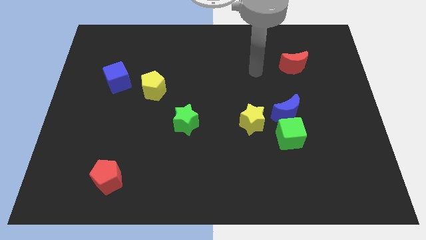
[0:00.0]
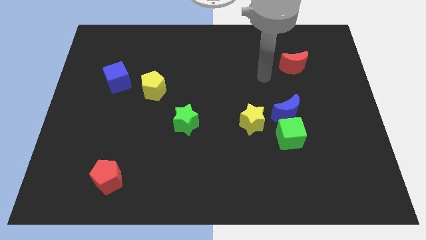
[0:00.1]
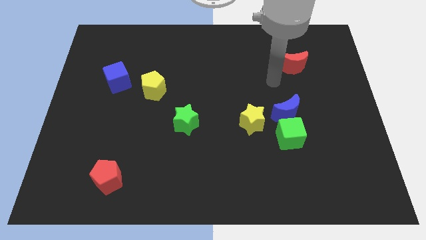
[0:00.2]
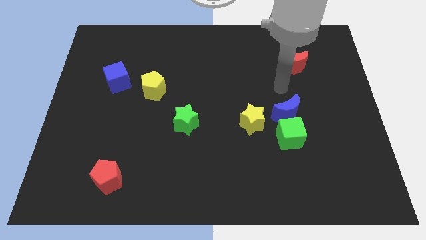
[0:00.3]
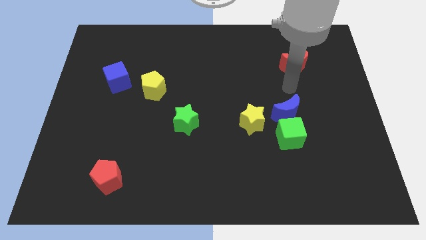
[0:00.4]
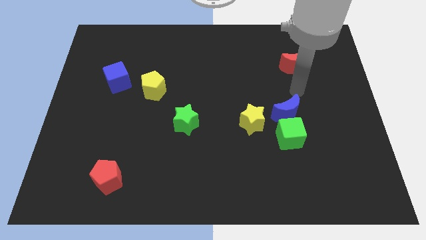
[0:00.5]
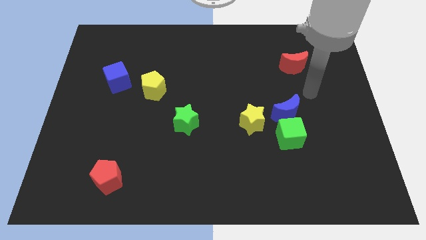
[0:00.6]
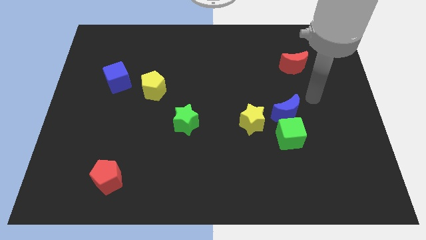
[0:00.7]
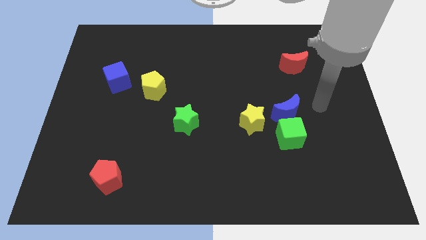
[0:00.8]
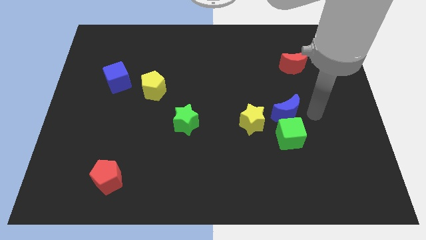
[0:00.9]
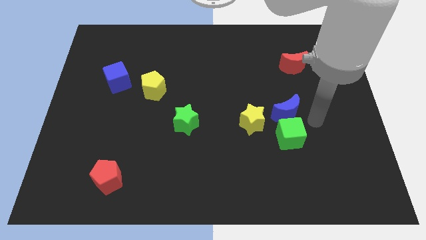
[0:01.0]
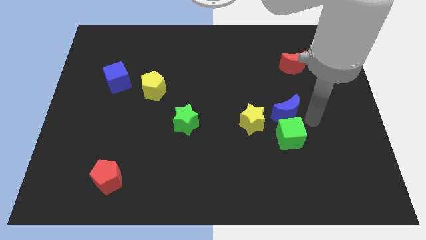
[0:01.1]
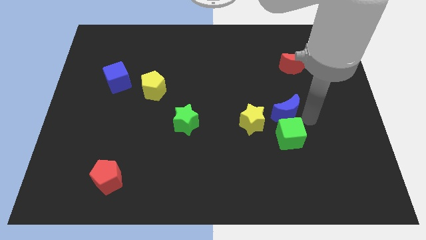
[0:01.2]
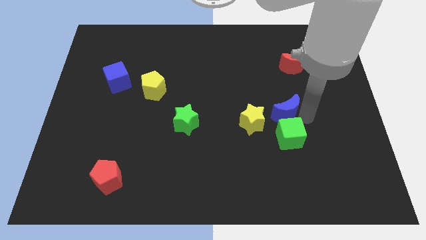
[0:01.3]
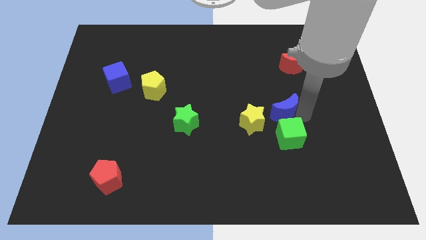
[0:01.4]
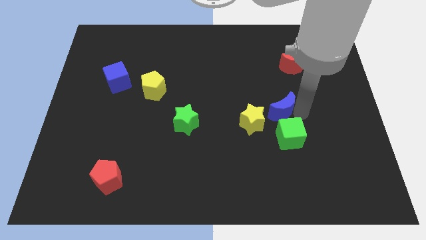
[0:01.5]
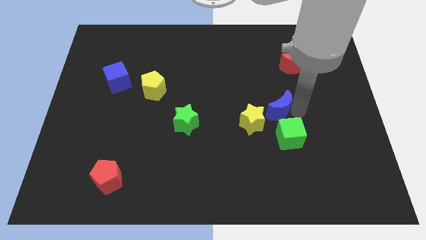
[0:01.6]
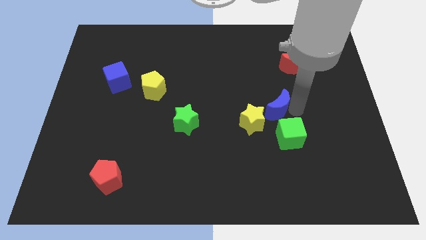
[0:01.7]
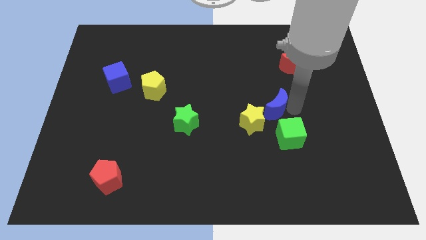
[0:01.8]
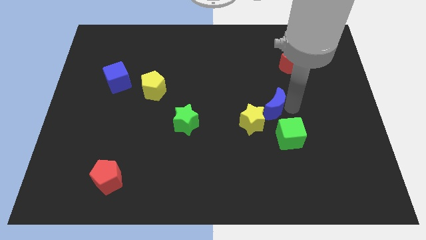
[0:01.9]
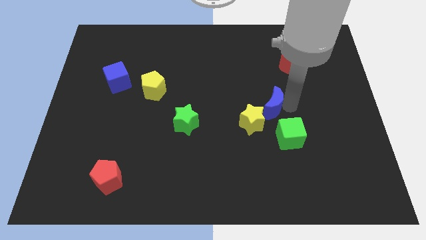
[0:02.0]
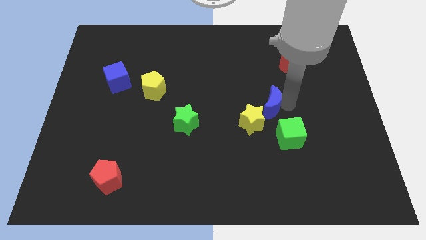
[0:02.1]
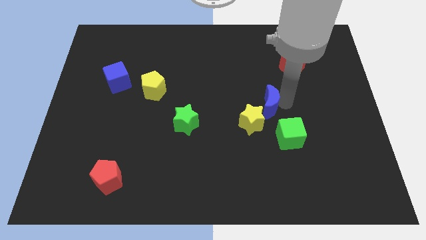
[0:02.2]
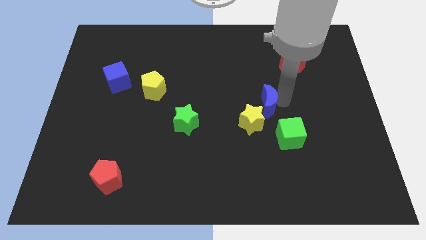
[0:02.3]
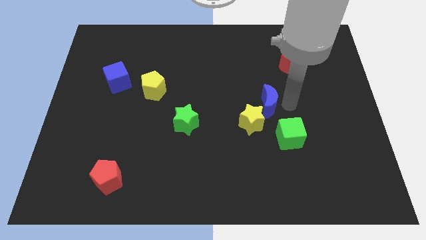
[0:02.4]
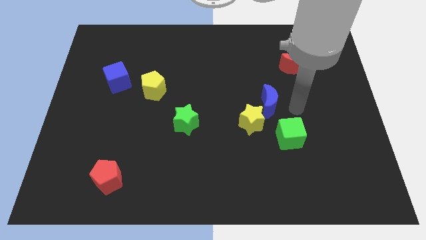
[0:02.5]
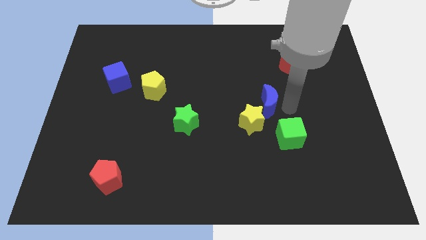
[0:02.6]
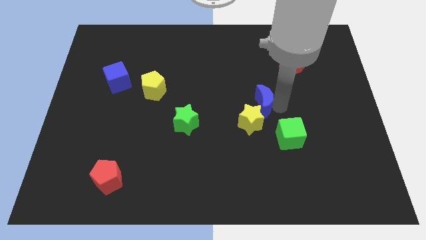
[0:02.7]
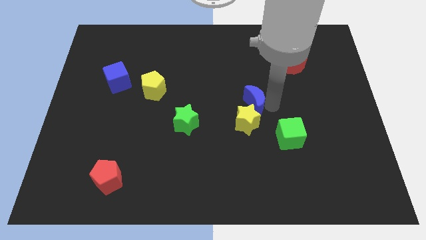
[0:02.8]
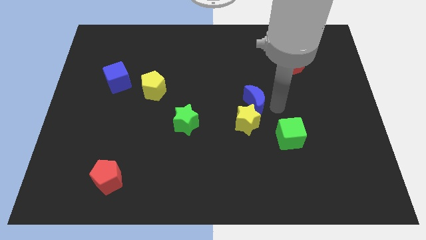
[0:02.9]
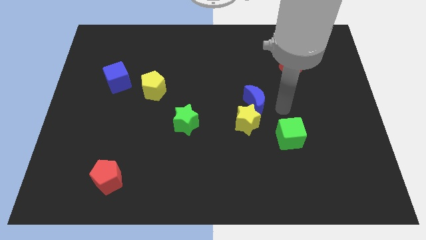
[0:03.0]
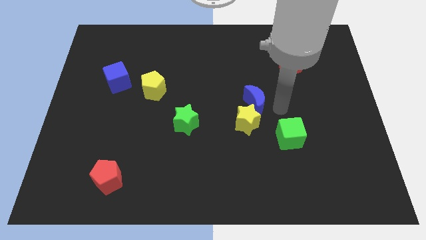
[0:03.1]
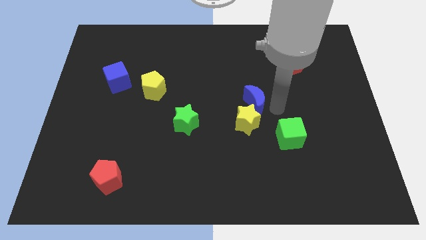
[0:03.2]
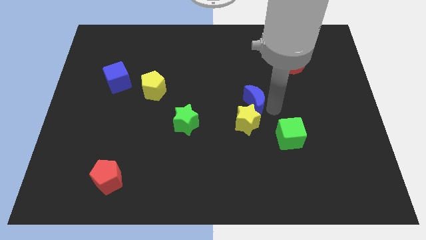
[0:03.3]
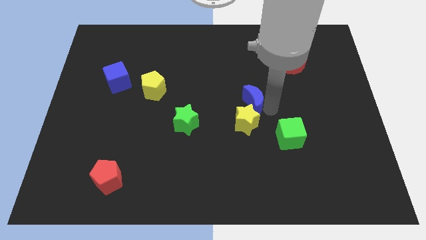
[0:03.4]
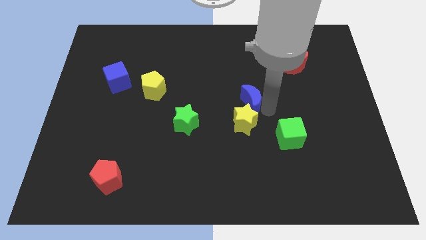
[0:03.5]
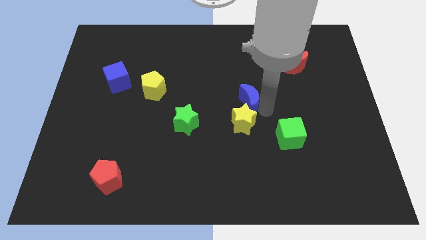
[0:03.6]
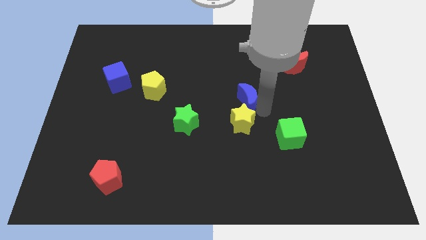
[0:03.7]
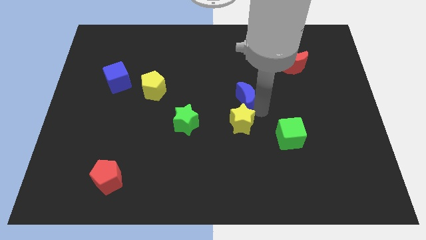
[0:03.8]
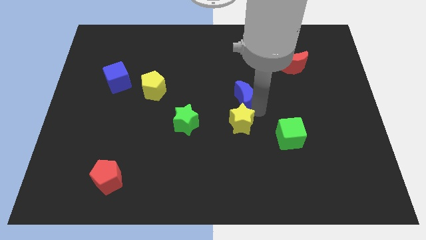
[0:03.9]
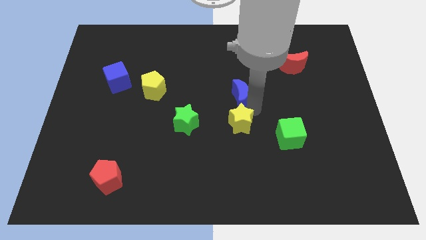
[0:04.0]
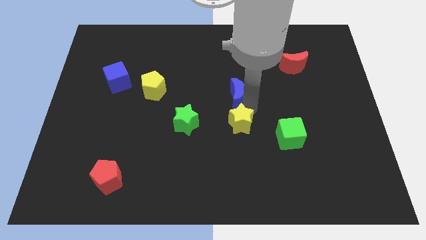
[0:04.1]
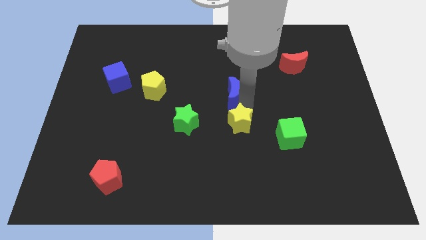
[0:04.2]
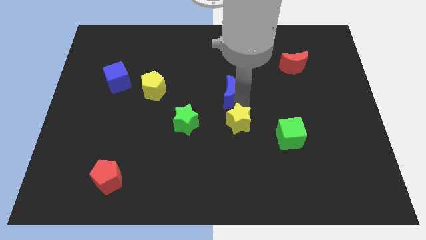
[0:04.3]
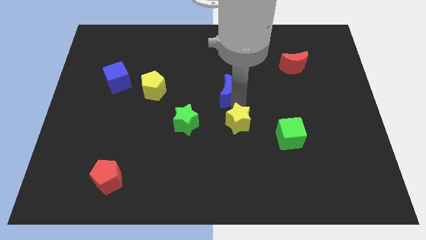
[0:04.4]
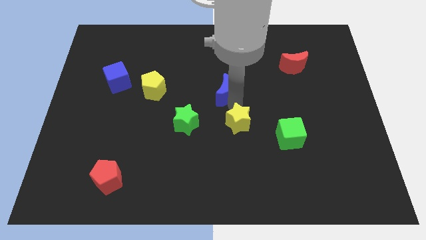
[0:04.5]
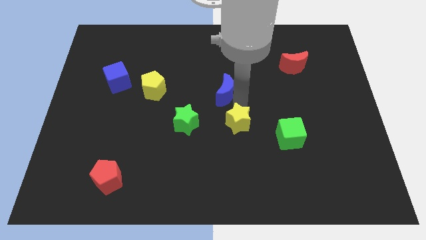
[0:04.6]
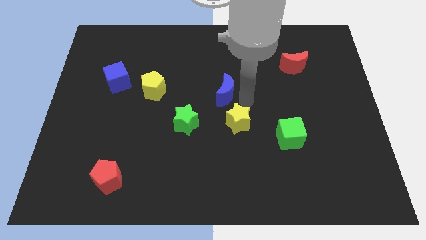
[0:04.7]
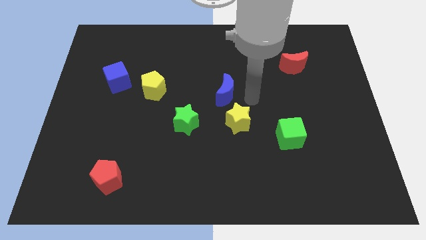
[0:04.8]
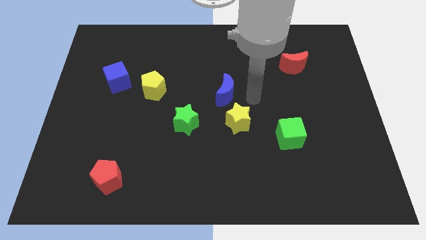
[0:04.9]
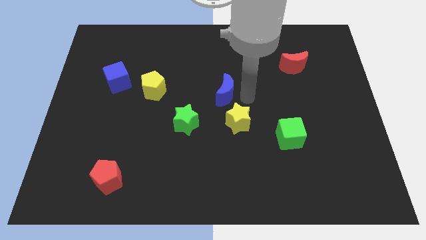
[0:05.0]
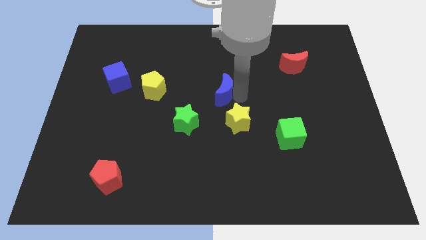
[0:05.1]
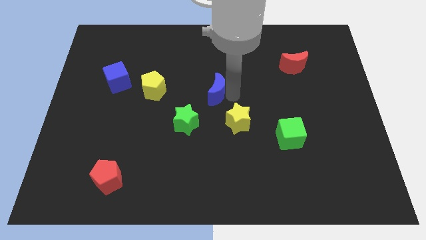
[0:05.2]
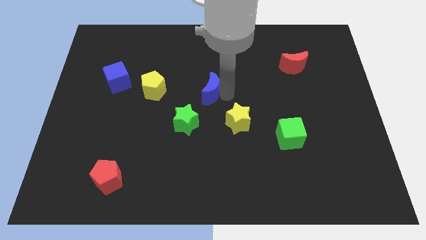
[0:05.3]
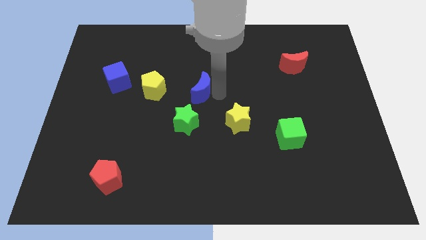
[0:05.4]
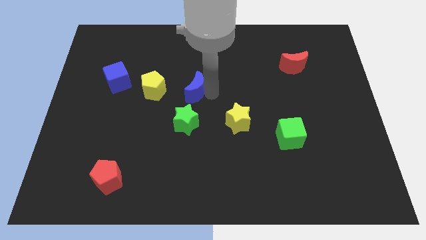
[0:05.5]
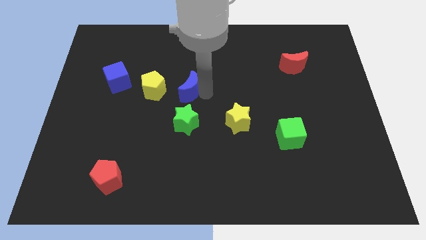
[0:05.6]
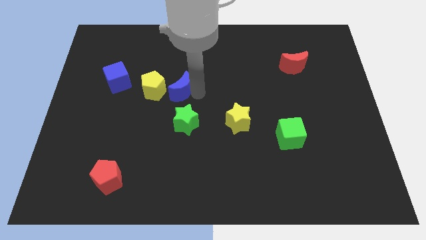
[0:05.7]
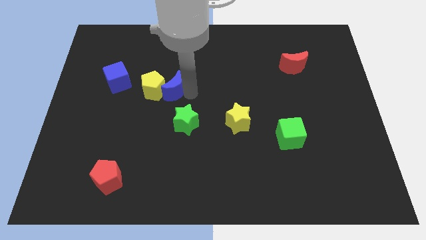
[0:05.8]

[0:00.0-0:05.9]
slide the blue moon just right of the blue cube

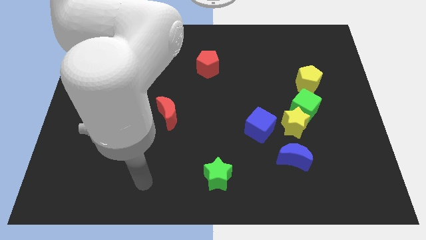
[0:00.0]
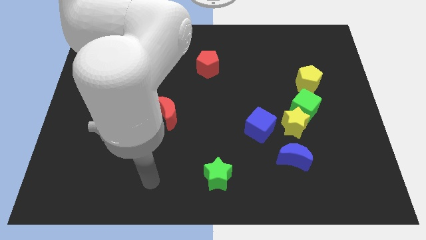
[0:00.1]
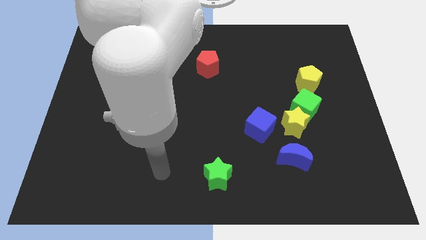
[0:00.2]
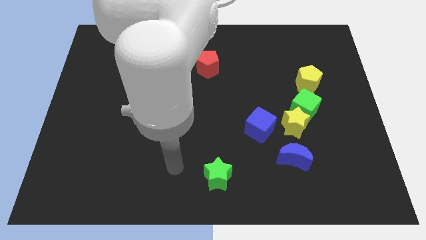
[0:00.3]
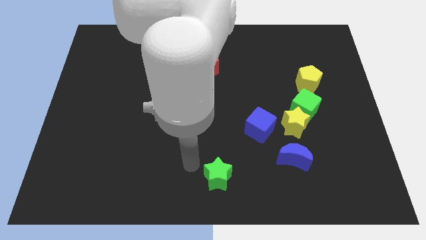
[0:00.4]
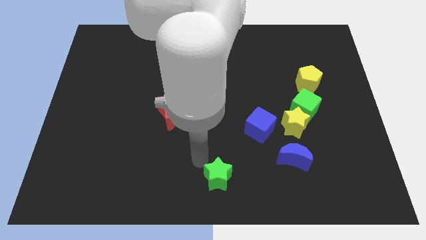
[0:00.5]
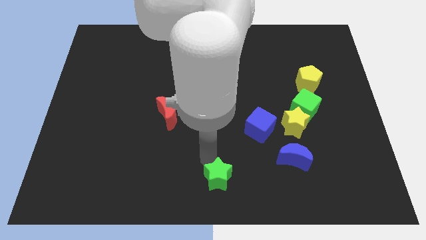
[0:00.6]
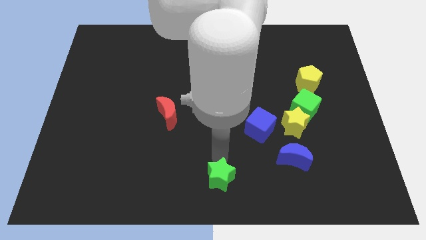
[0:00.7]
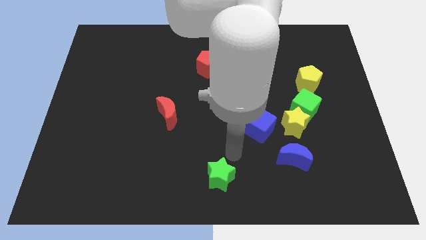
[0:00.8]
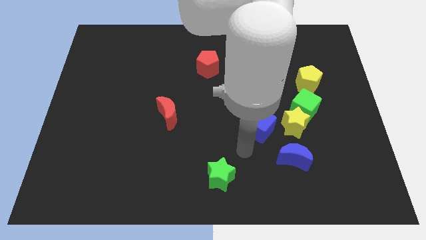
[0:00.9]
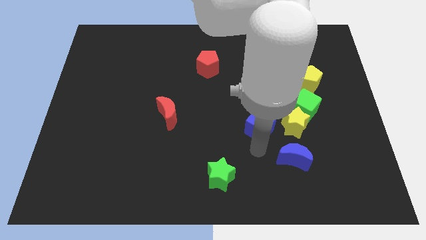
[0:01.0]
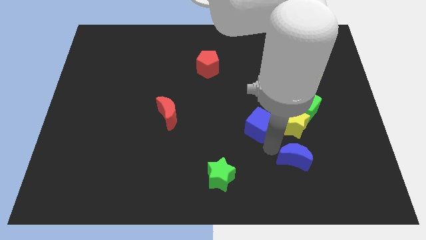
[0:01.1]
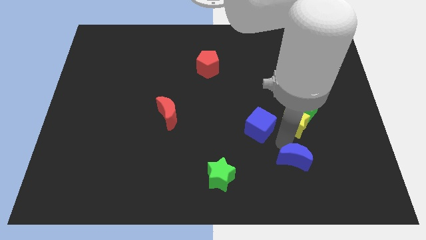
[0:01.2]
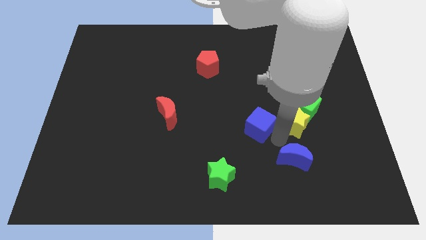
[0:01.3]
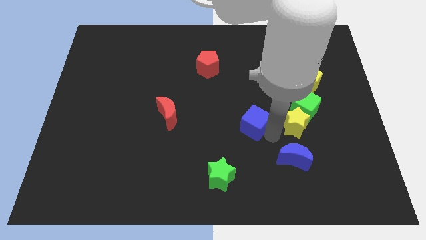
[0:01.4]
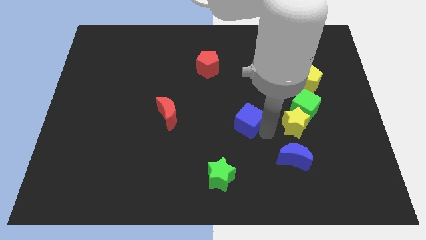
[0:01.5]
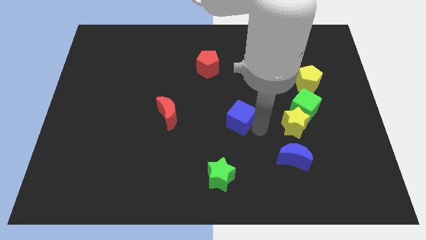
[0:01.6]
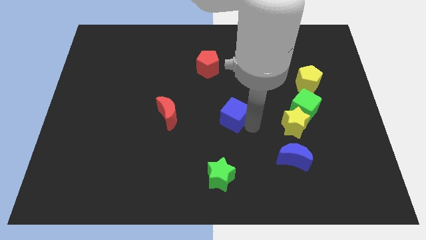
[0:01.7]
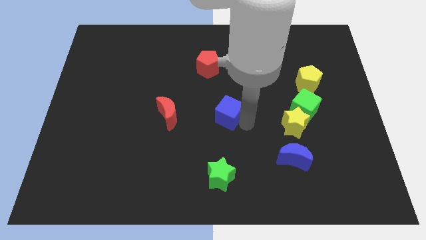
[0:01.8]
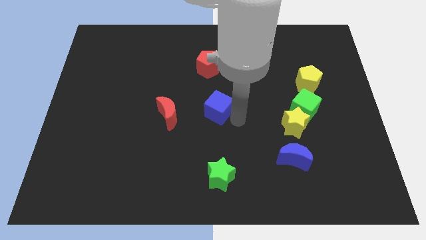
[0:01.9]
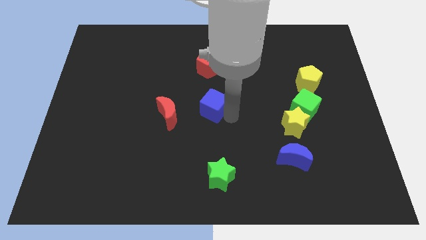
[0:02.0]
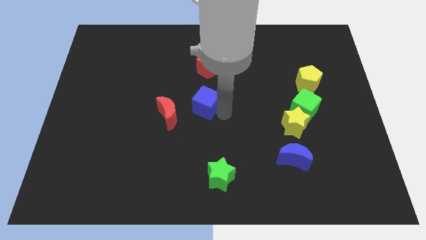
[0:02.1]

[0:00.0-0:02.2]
move the blue cube to the top right side of the red moon
